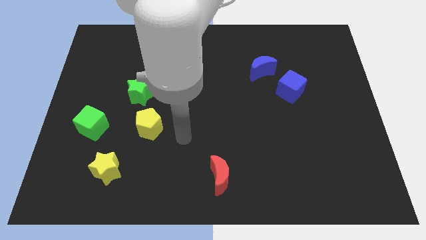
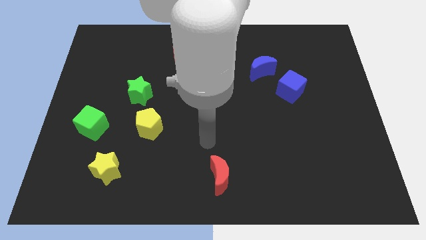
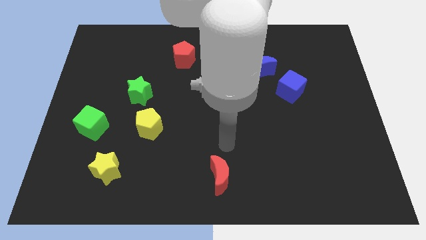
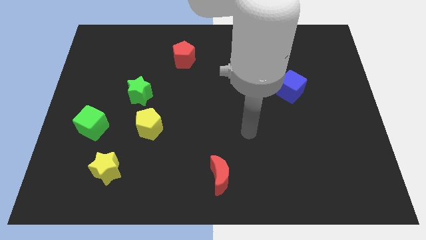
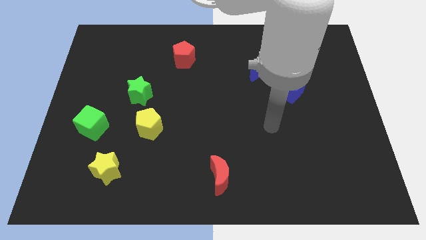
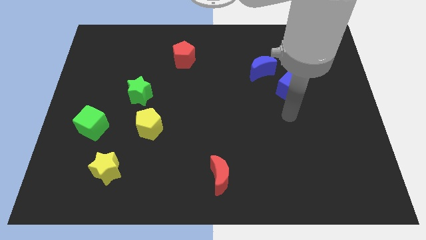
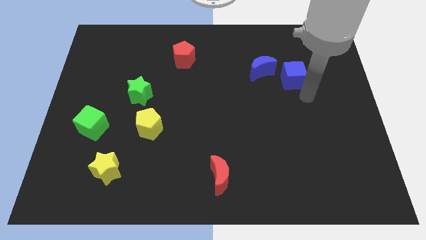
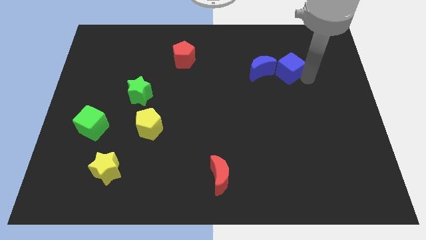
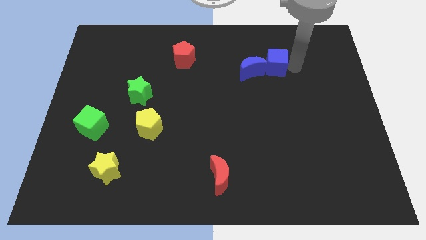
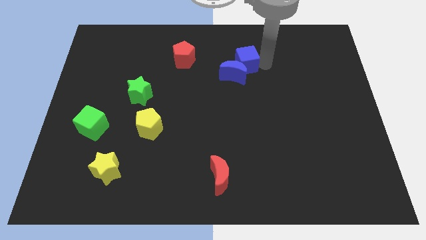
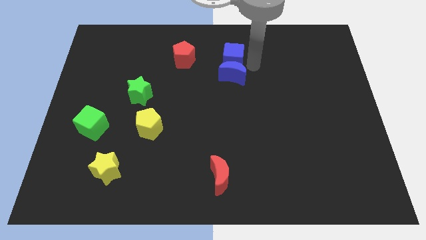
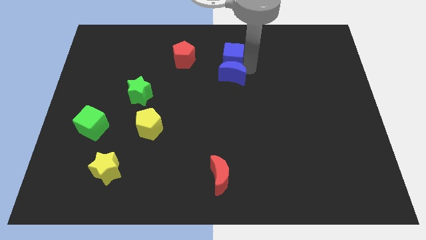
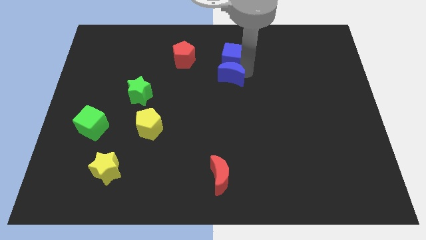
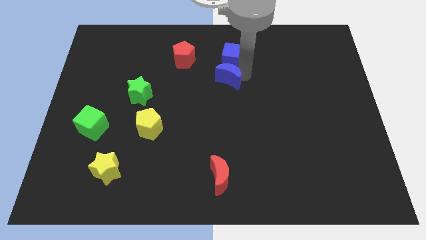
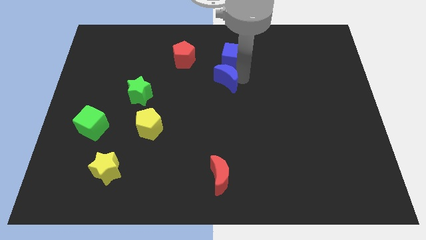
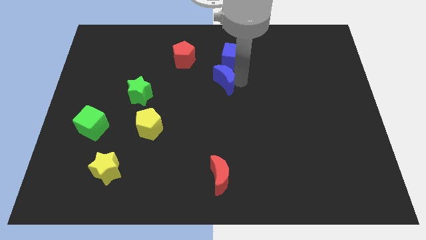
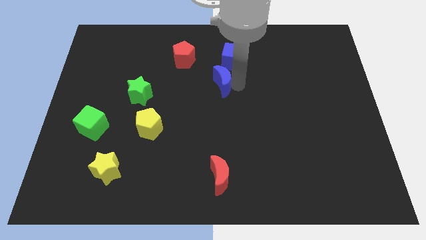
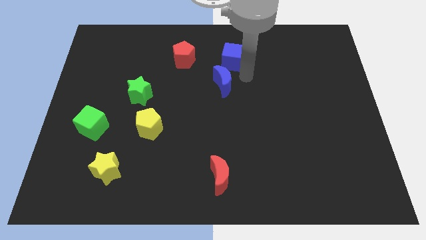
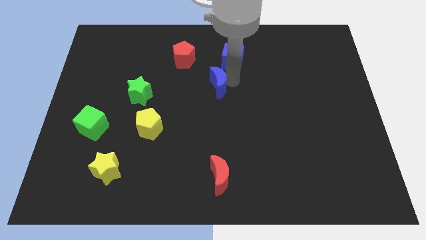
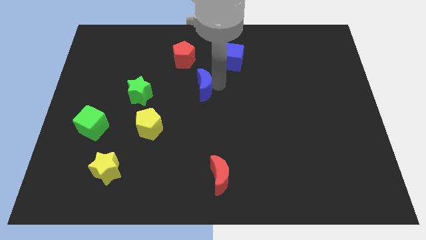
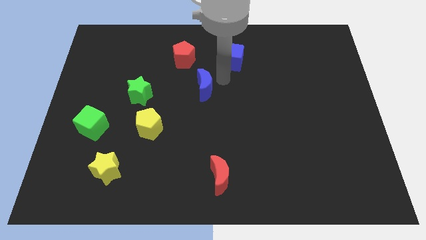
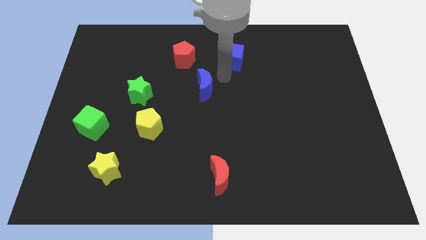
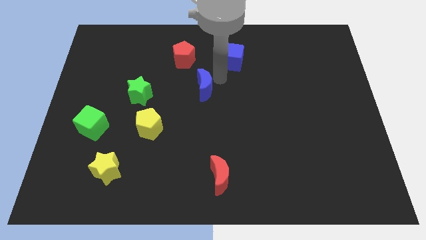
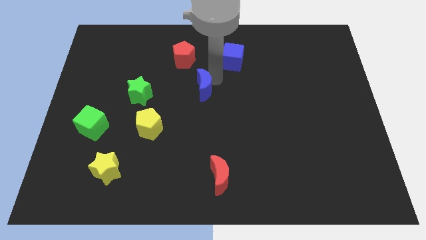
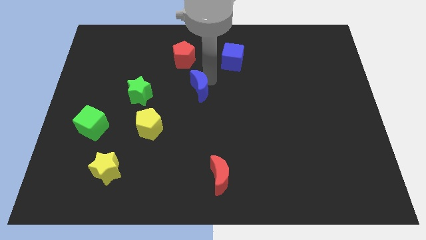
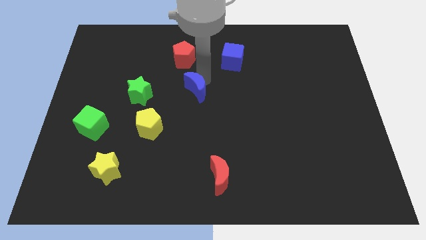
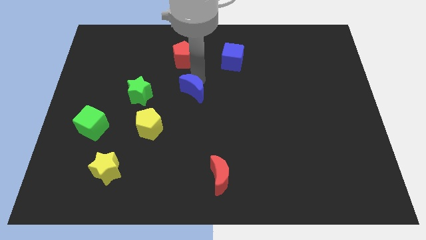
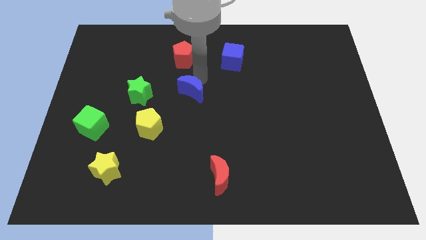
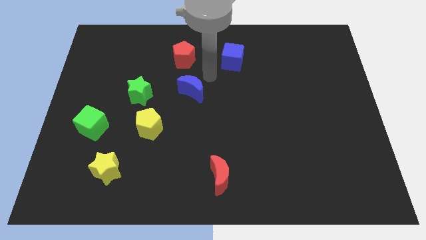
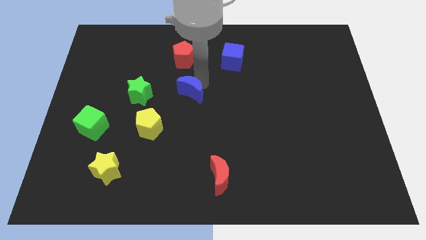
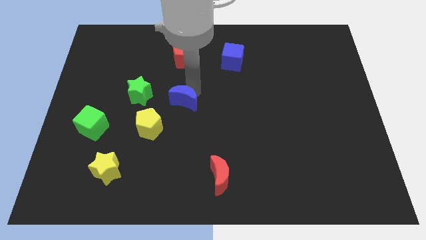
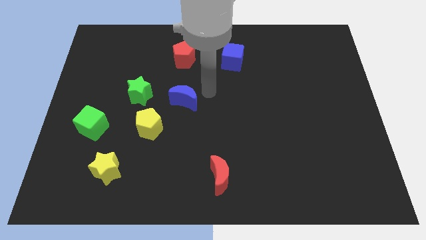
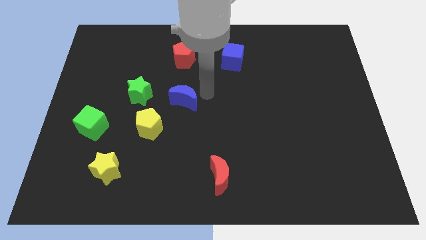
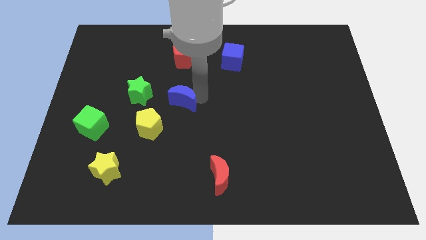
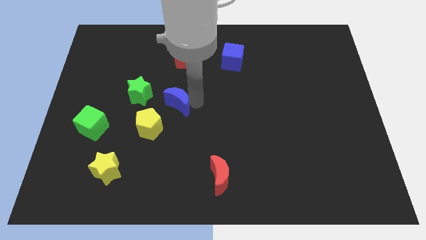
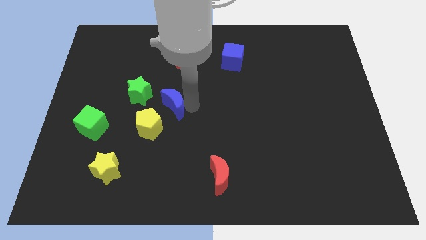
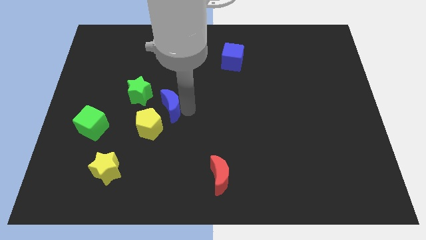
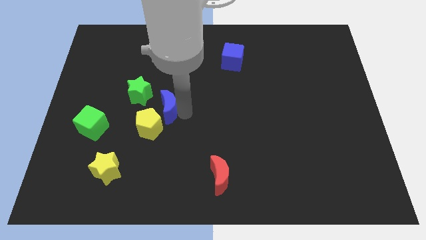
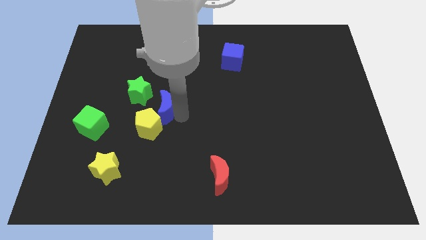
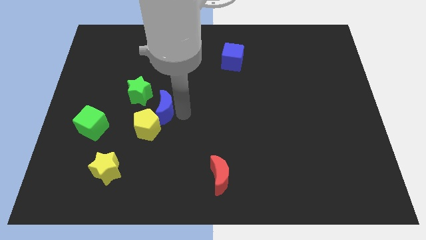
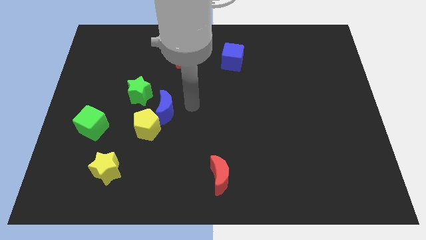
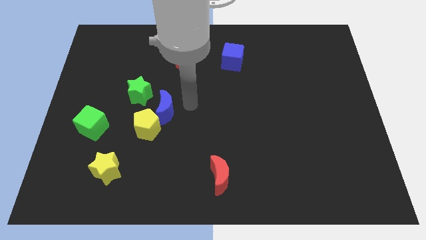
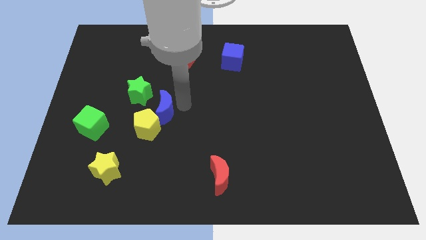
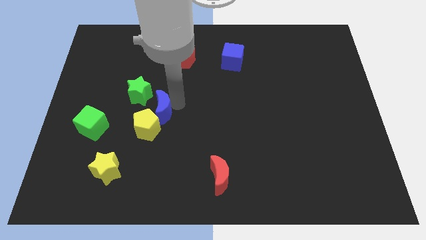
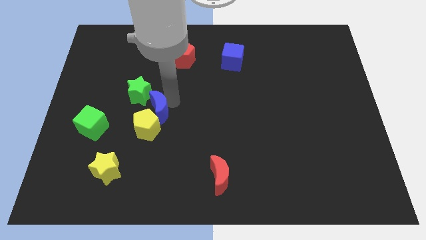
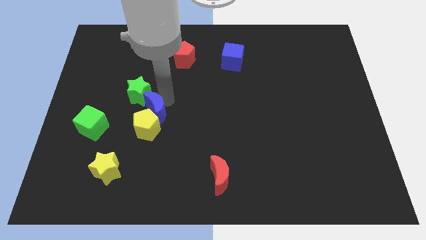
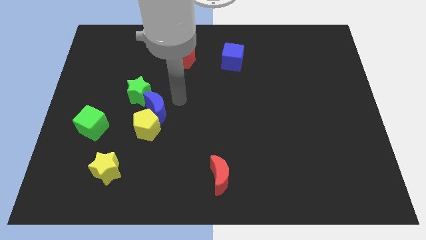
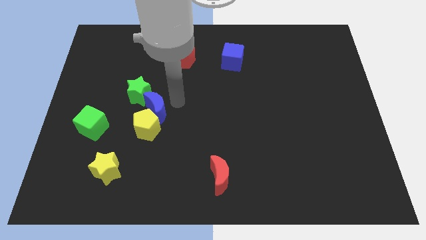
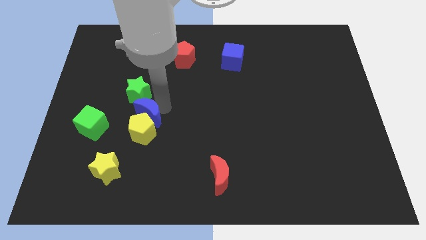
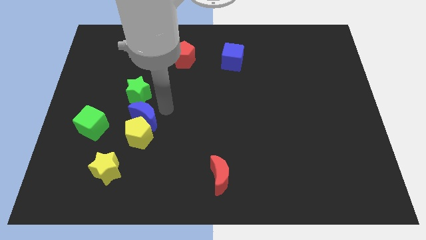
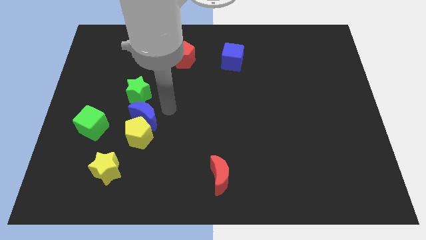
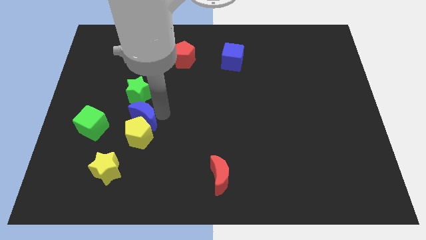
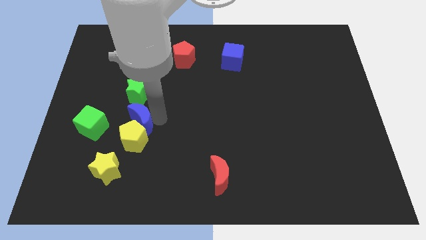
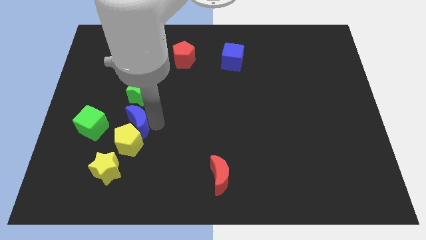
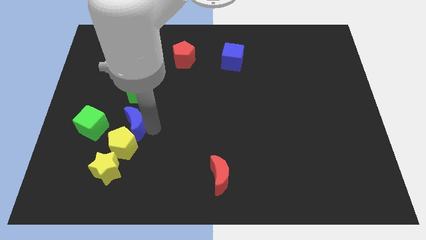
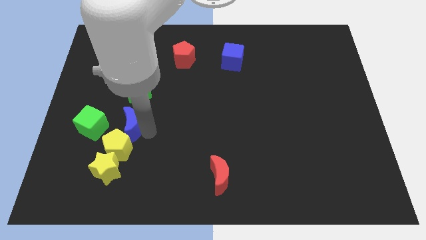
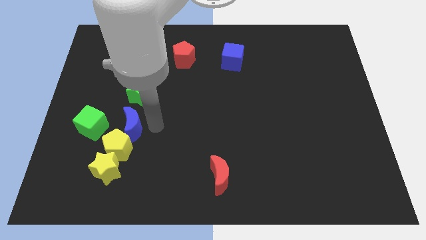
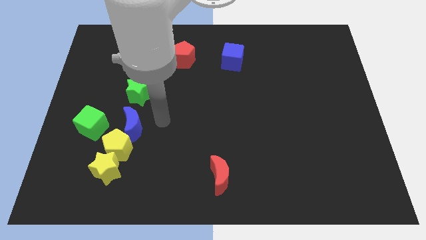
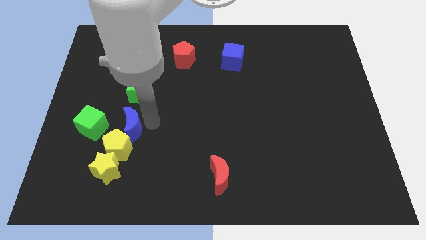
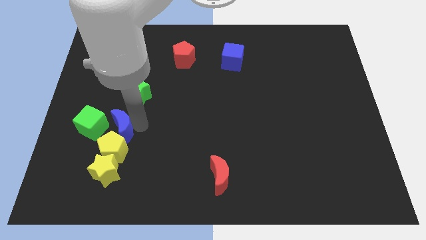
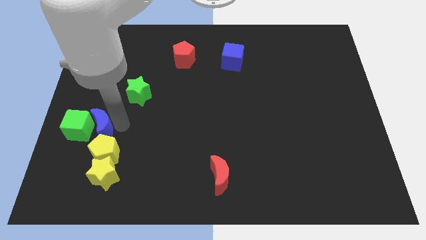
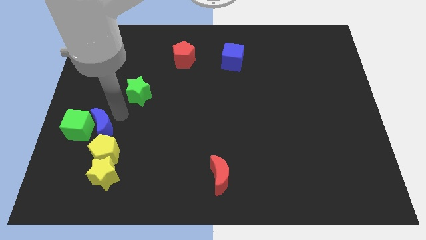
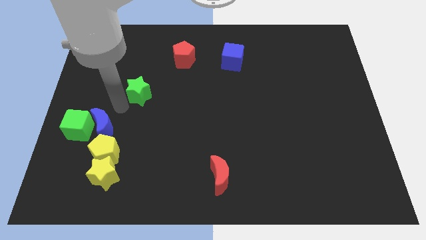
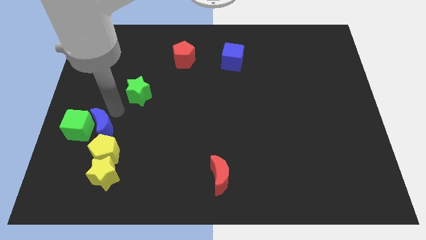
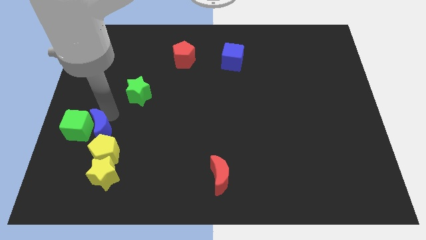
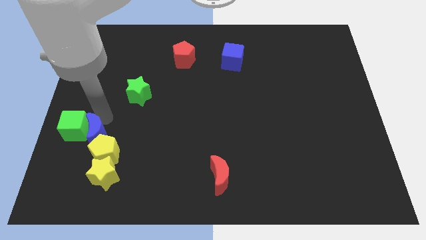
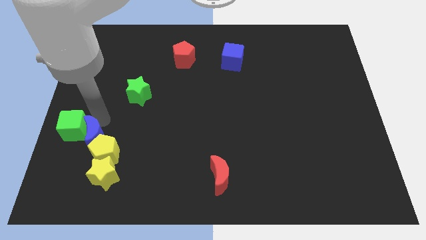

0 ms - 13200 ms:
put the blue moon to the top left of the yellow star
